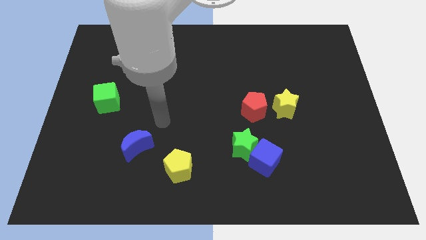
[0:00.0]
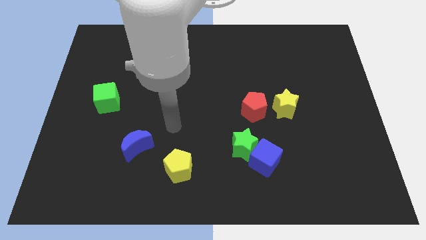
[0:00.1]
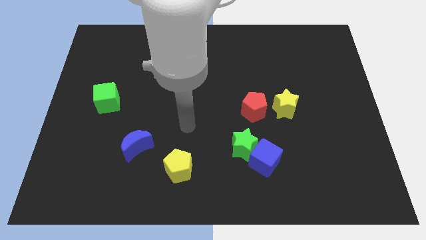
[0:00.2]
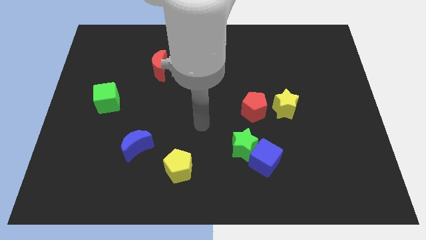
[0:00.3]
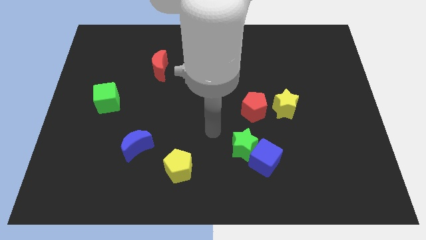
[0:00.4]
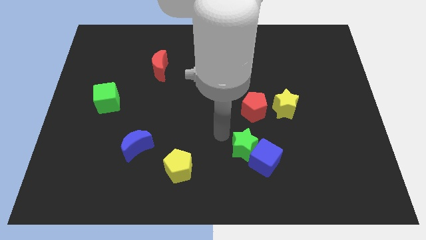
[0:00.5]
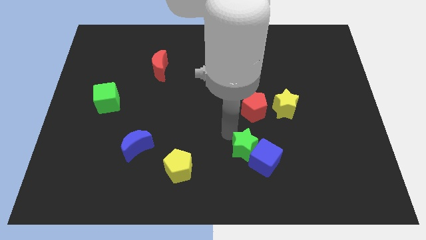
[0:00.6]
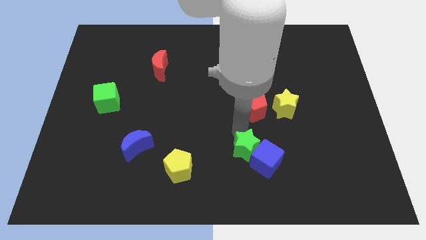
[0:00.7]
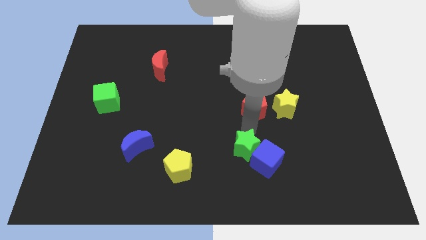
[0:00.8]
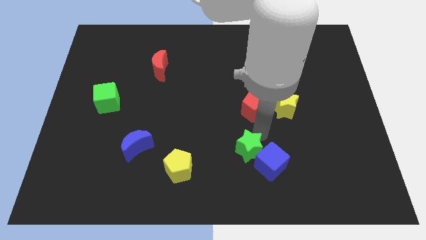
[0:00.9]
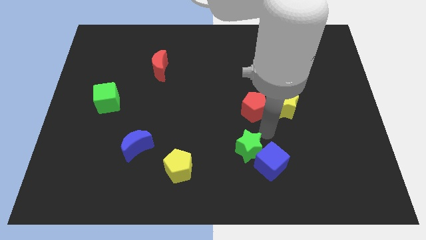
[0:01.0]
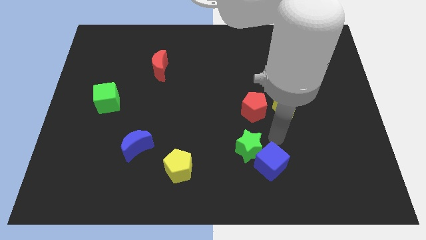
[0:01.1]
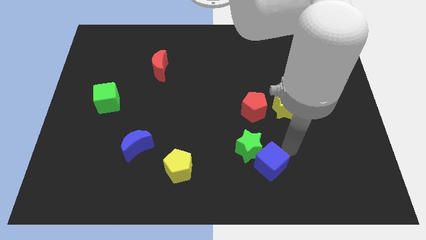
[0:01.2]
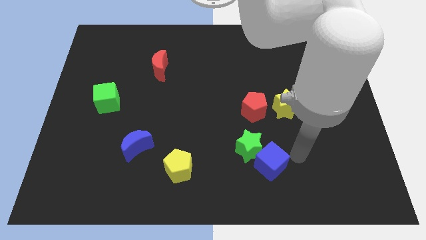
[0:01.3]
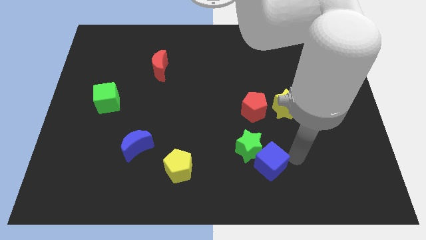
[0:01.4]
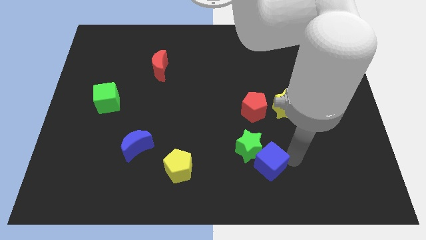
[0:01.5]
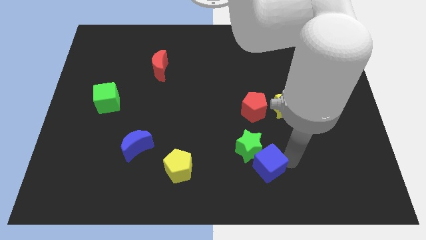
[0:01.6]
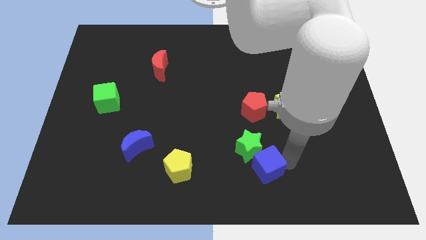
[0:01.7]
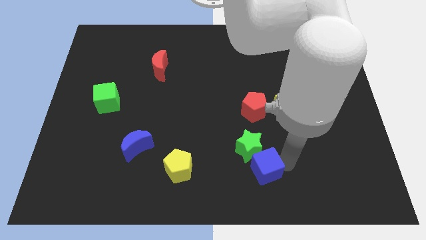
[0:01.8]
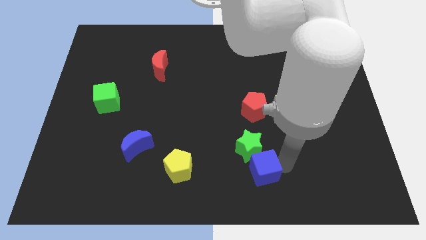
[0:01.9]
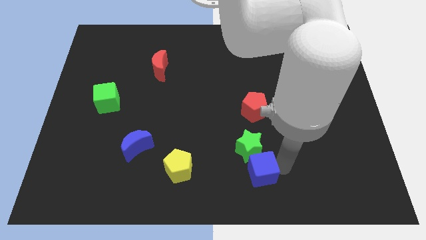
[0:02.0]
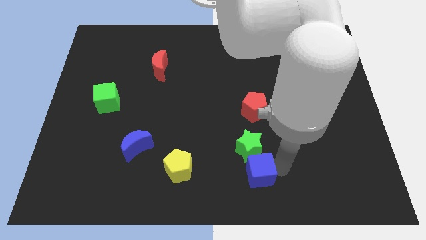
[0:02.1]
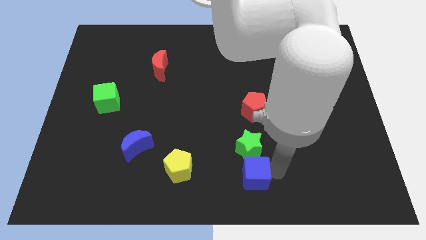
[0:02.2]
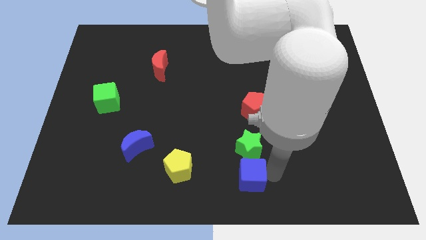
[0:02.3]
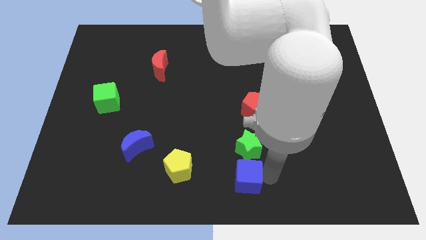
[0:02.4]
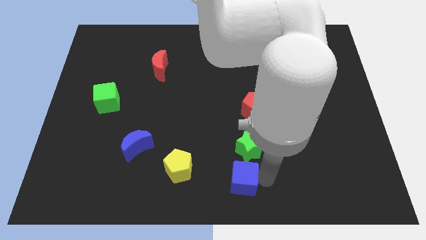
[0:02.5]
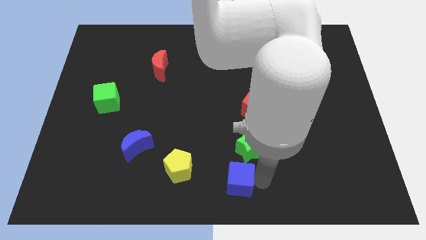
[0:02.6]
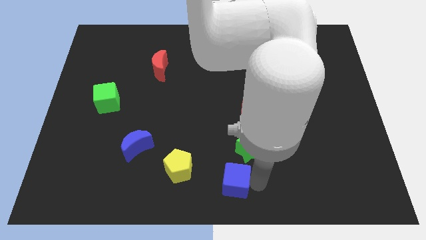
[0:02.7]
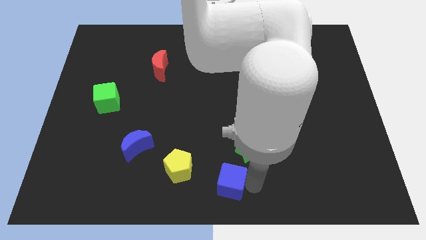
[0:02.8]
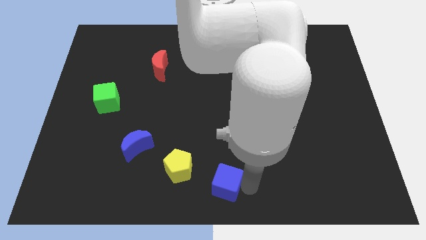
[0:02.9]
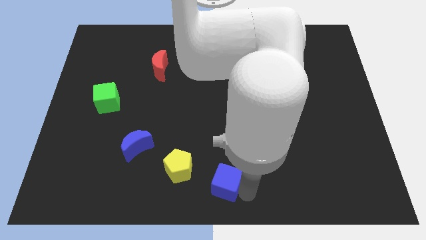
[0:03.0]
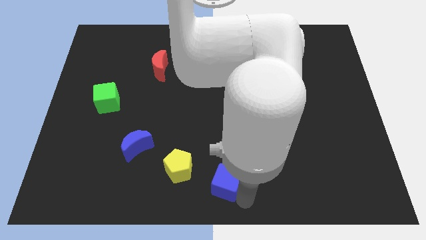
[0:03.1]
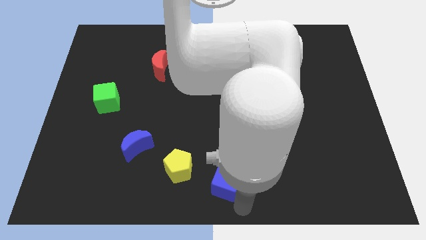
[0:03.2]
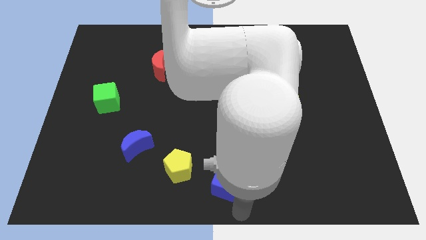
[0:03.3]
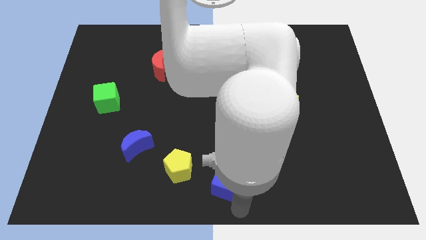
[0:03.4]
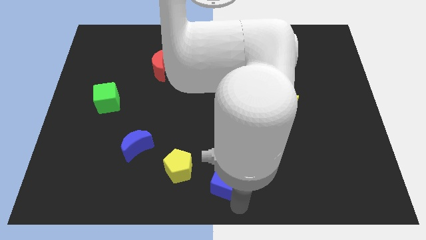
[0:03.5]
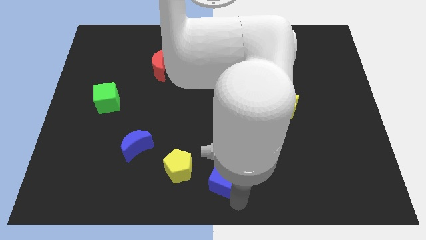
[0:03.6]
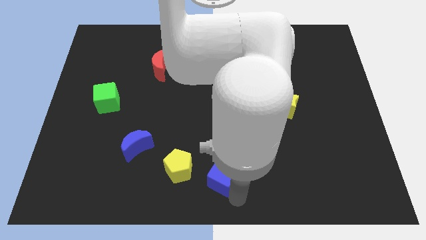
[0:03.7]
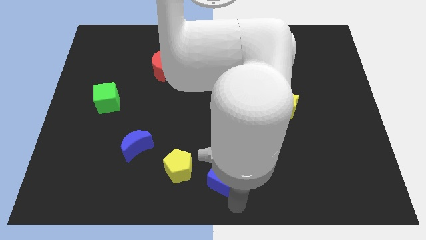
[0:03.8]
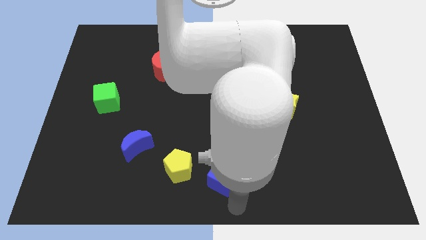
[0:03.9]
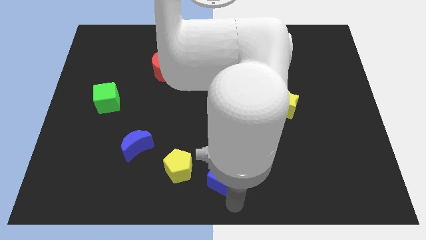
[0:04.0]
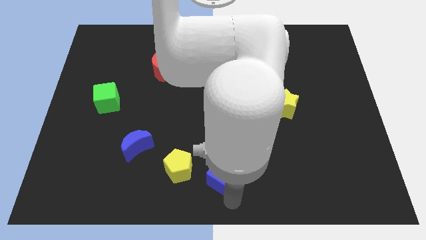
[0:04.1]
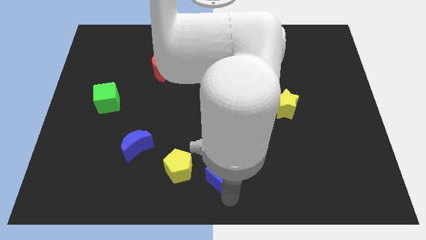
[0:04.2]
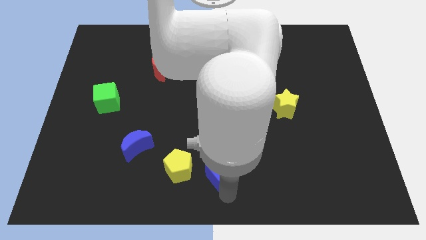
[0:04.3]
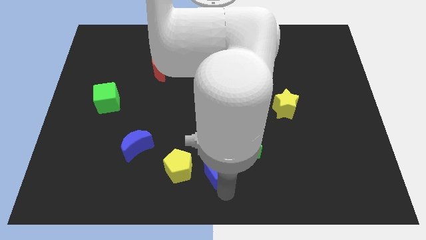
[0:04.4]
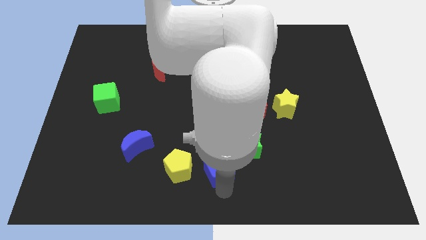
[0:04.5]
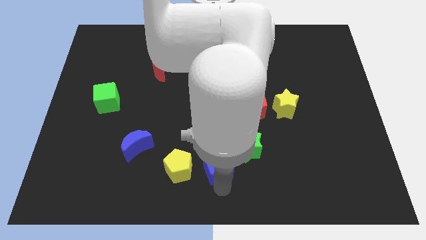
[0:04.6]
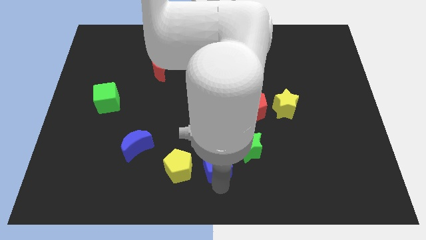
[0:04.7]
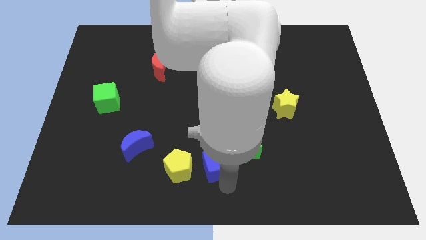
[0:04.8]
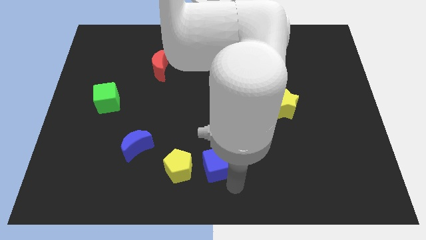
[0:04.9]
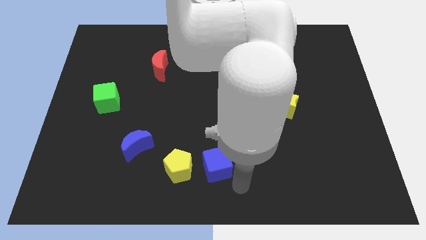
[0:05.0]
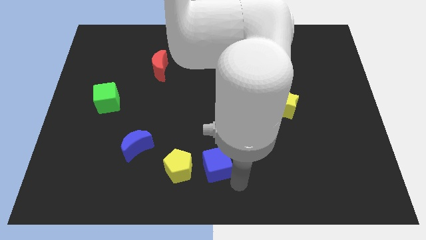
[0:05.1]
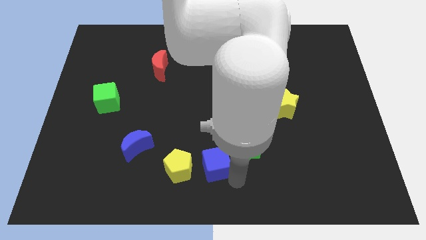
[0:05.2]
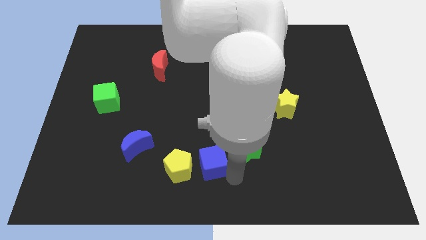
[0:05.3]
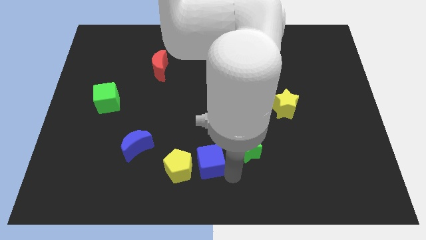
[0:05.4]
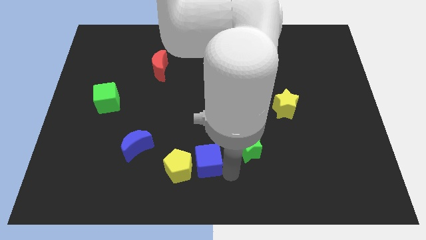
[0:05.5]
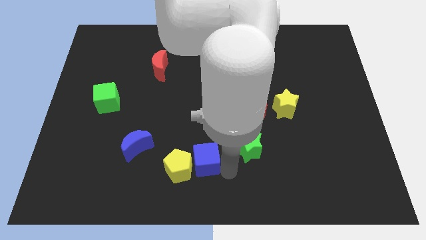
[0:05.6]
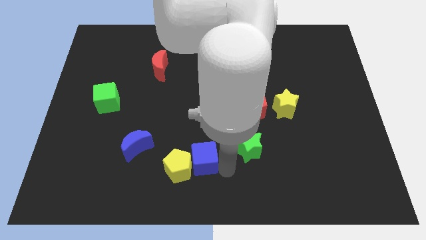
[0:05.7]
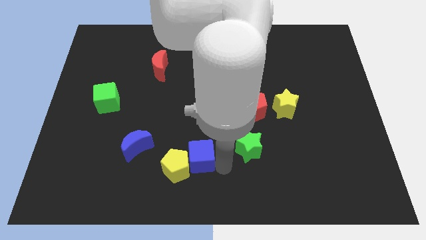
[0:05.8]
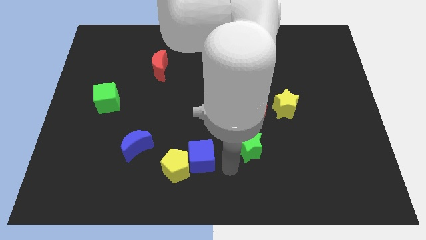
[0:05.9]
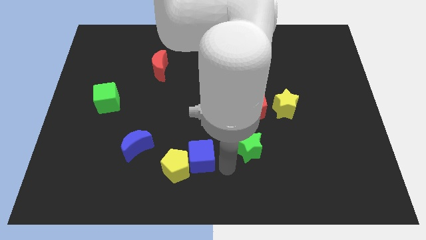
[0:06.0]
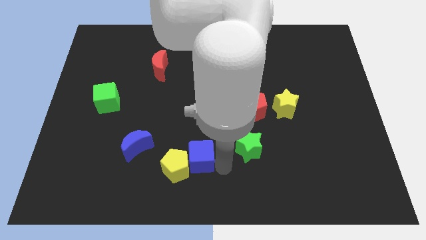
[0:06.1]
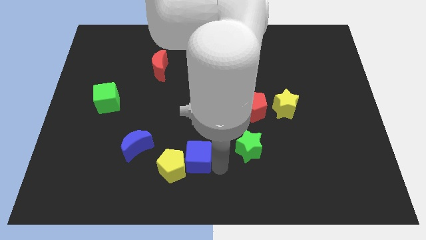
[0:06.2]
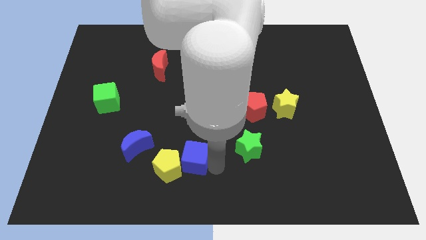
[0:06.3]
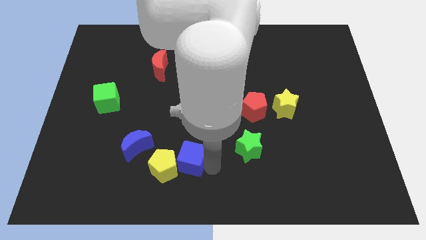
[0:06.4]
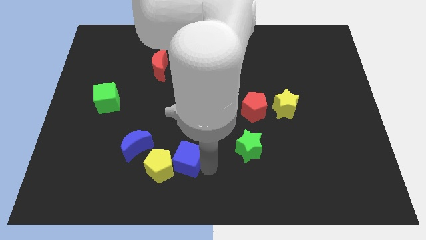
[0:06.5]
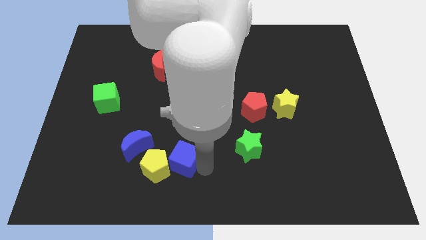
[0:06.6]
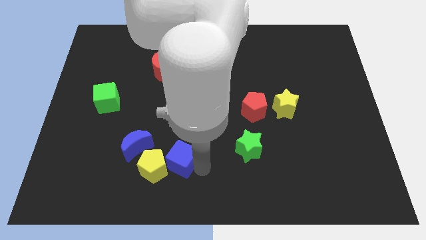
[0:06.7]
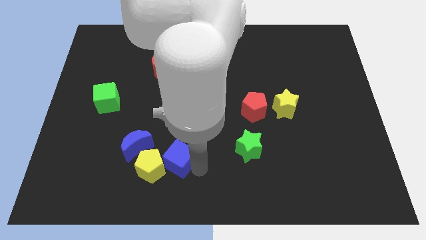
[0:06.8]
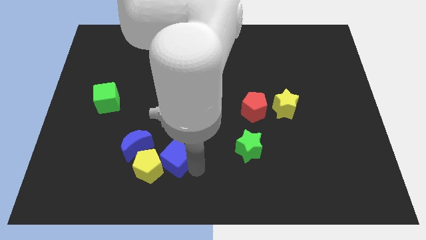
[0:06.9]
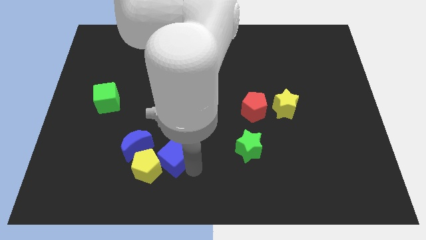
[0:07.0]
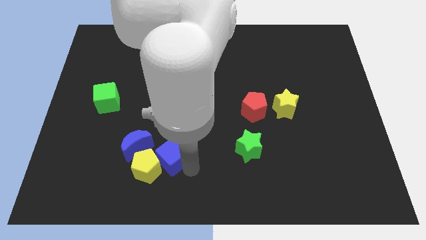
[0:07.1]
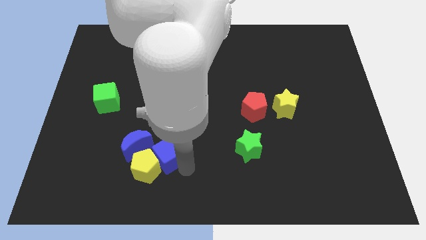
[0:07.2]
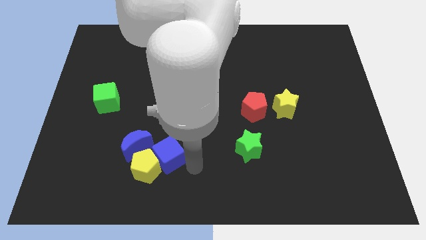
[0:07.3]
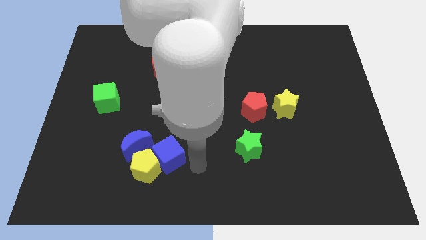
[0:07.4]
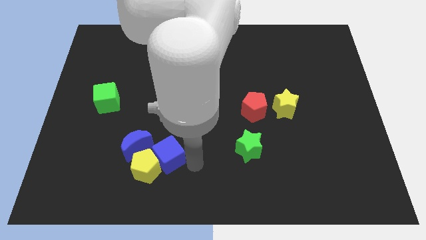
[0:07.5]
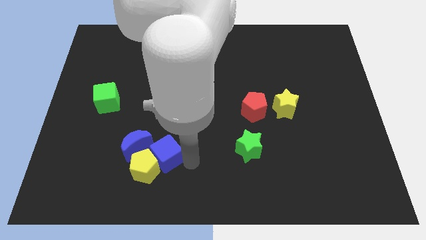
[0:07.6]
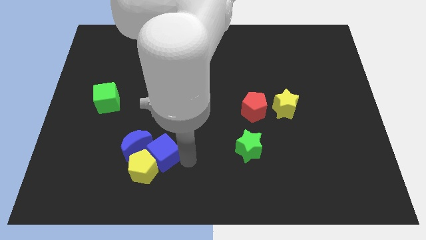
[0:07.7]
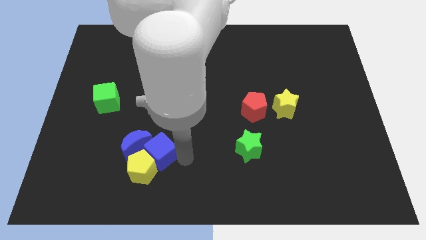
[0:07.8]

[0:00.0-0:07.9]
push the blue cube next to the blue moon
